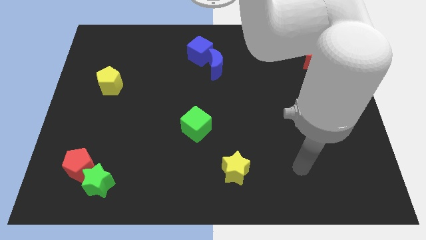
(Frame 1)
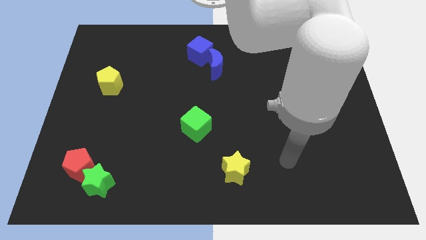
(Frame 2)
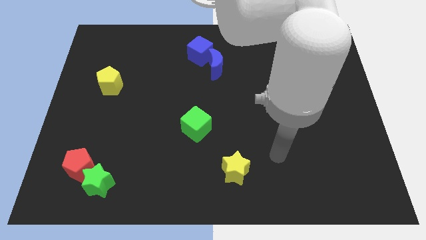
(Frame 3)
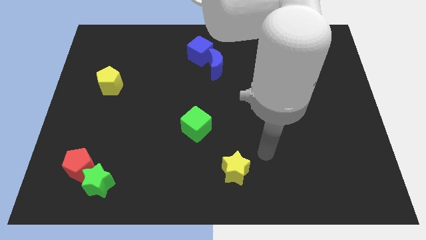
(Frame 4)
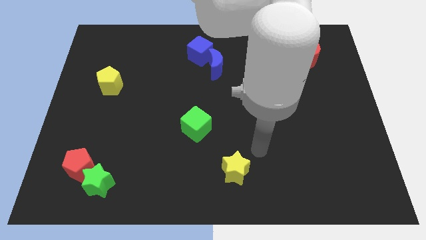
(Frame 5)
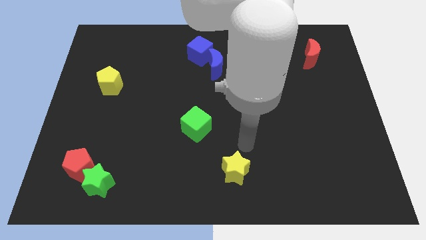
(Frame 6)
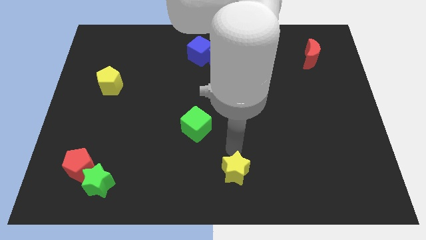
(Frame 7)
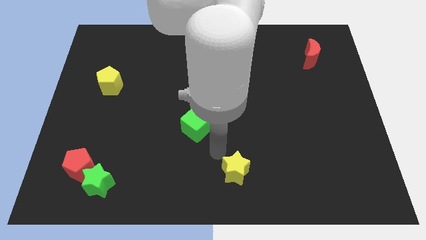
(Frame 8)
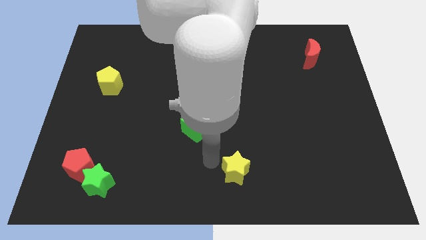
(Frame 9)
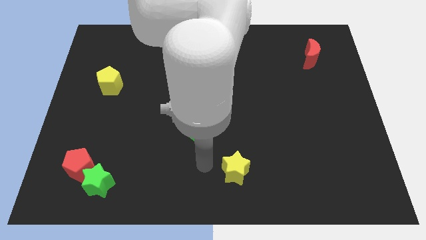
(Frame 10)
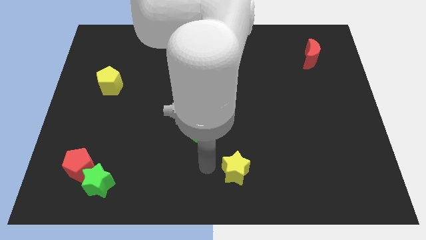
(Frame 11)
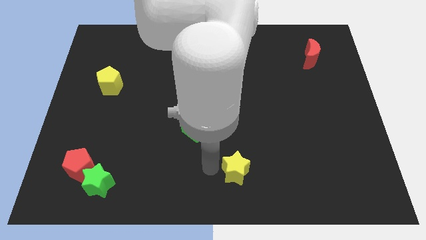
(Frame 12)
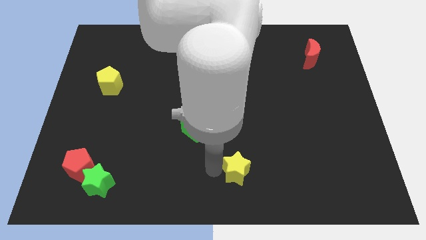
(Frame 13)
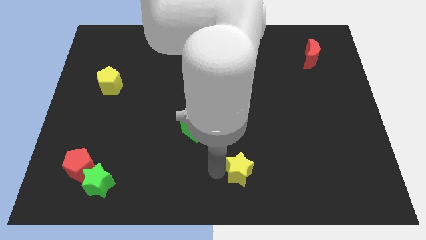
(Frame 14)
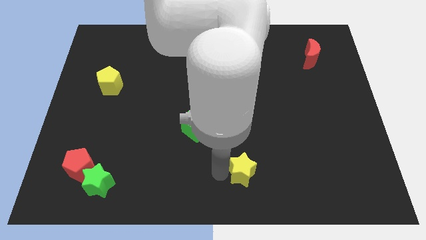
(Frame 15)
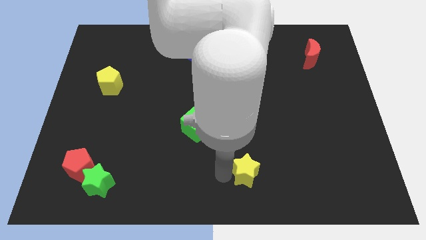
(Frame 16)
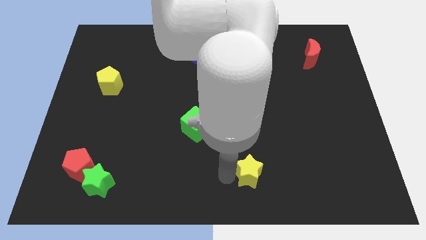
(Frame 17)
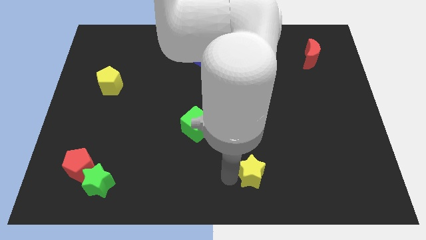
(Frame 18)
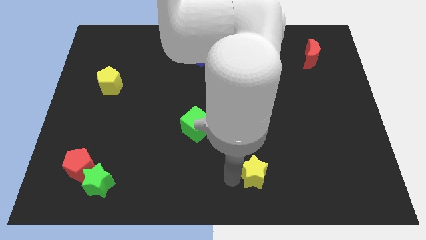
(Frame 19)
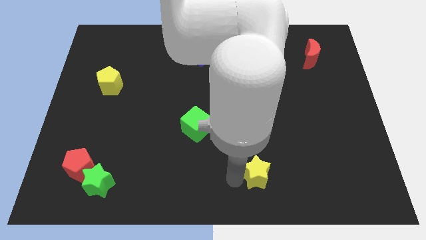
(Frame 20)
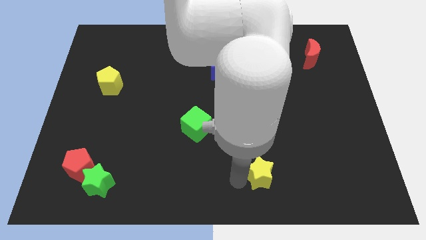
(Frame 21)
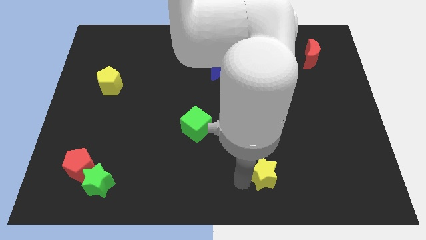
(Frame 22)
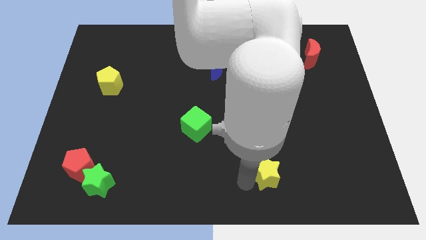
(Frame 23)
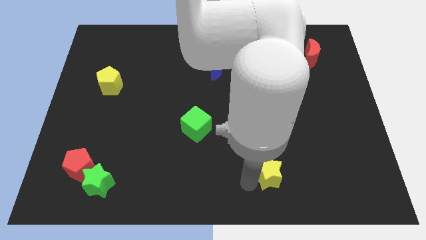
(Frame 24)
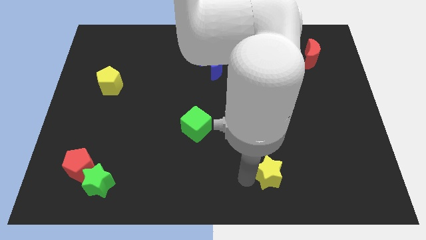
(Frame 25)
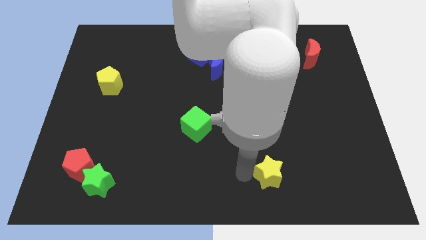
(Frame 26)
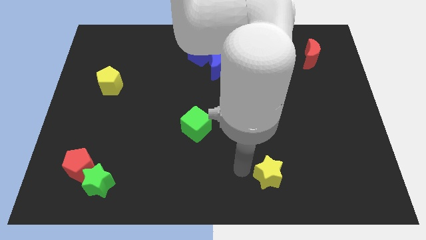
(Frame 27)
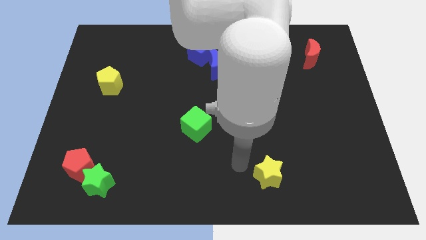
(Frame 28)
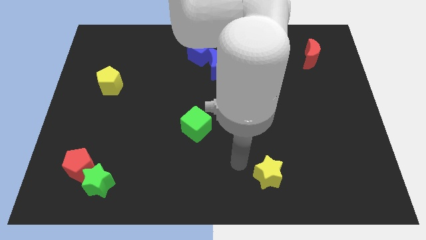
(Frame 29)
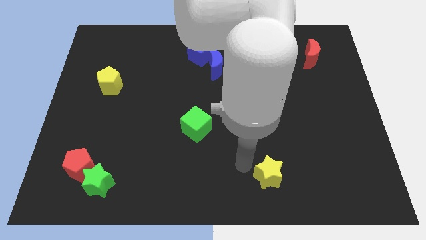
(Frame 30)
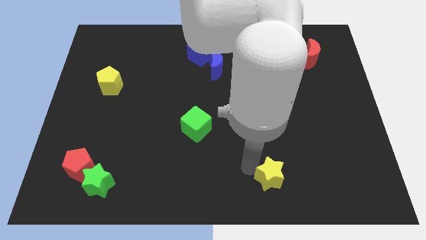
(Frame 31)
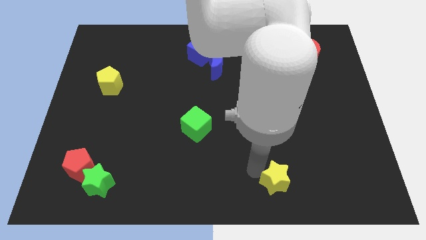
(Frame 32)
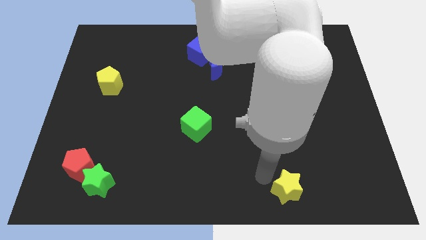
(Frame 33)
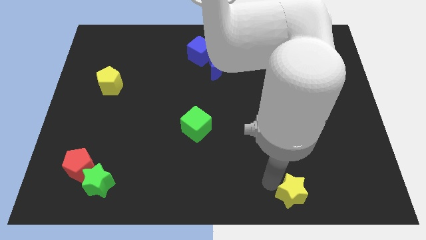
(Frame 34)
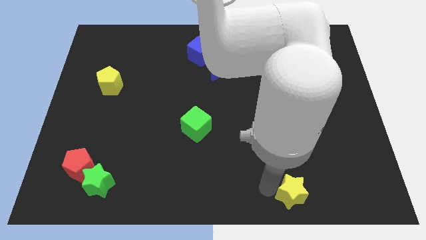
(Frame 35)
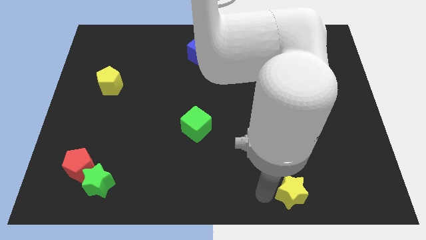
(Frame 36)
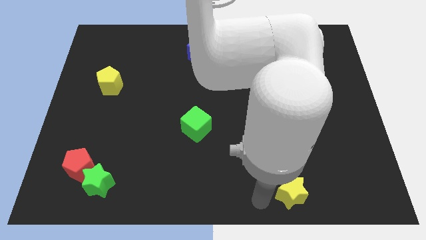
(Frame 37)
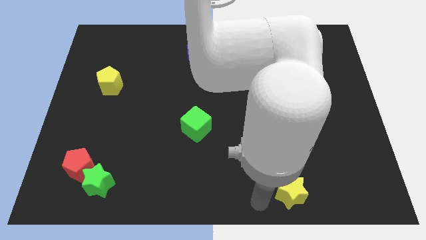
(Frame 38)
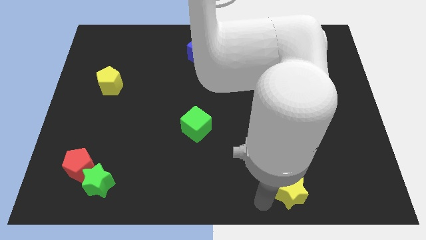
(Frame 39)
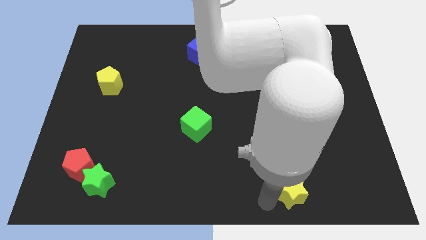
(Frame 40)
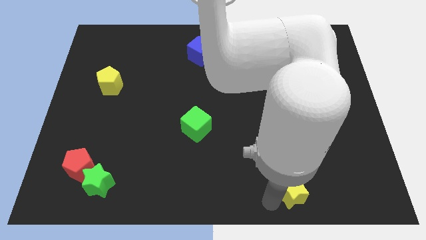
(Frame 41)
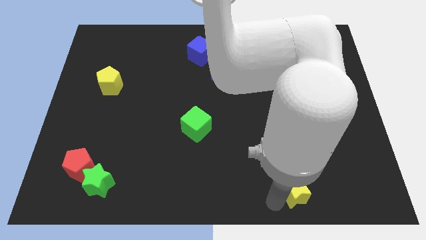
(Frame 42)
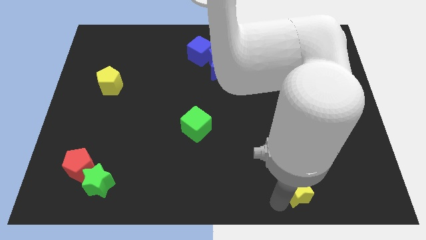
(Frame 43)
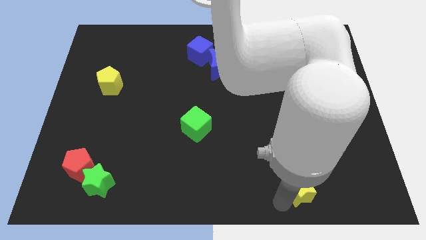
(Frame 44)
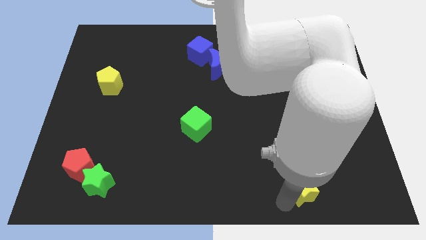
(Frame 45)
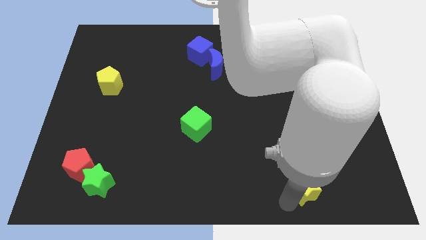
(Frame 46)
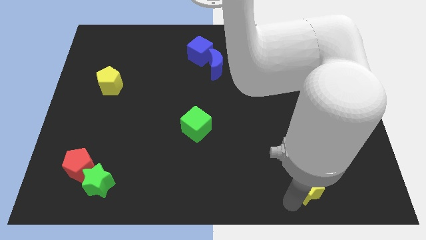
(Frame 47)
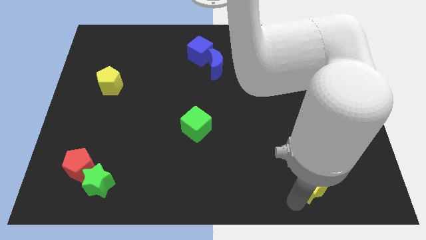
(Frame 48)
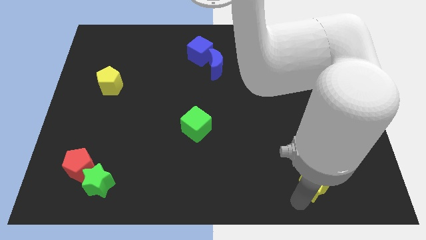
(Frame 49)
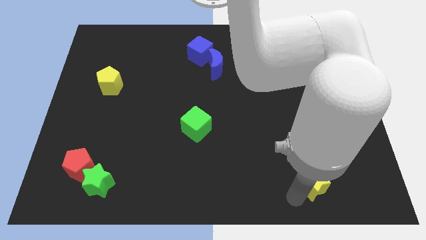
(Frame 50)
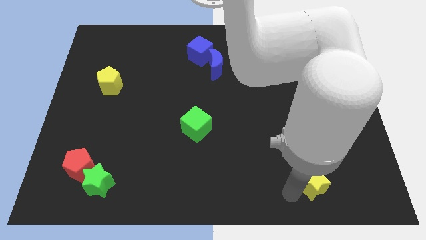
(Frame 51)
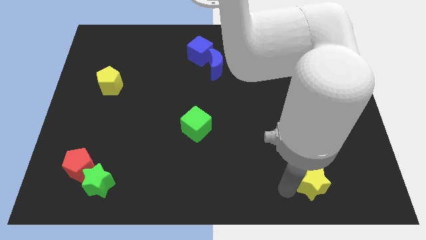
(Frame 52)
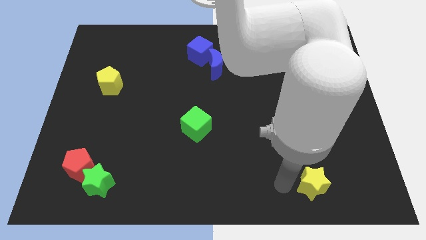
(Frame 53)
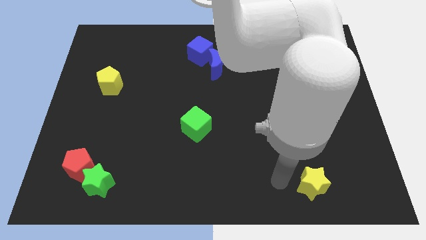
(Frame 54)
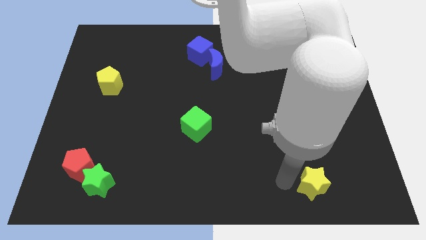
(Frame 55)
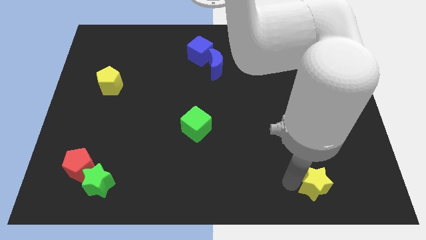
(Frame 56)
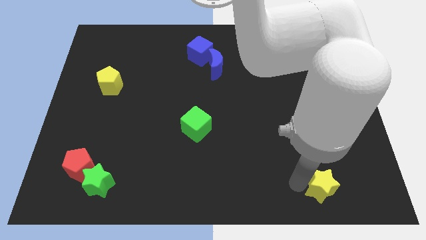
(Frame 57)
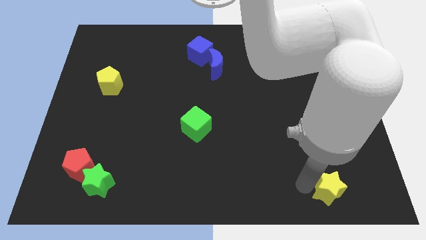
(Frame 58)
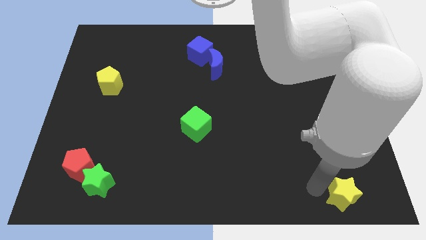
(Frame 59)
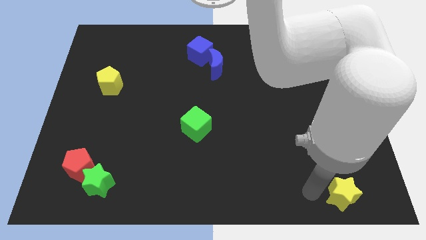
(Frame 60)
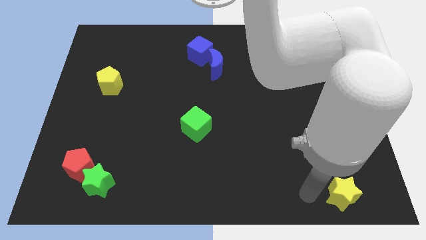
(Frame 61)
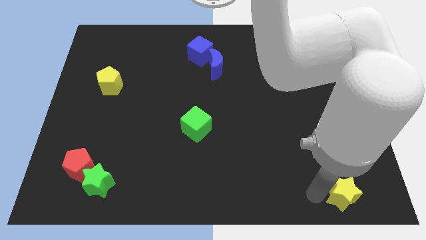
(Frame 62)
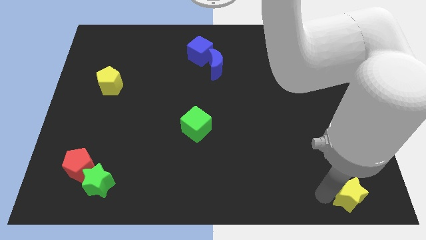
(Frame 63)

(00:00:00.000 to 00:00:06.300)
slide the yellow star to the lower right corner
